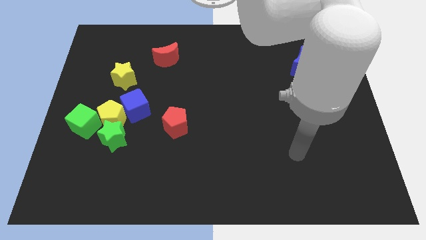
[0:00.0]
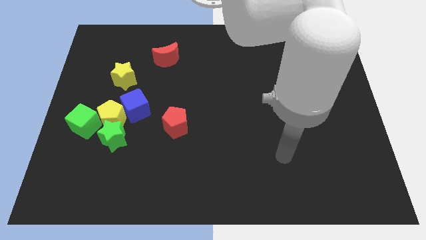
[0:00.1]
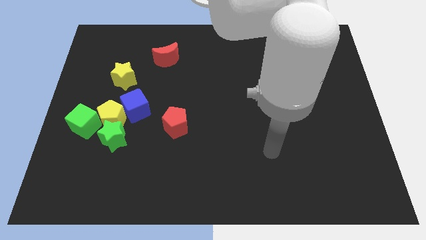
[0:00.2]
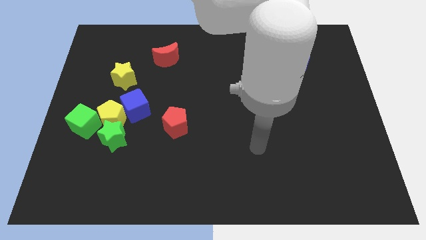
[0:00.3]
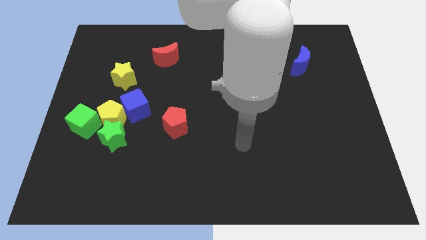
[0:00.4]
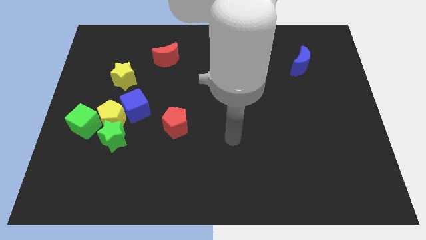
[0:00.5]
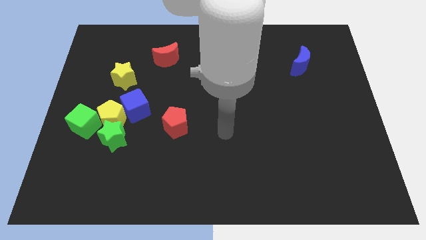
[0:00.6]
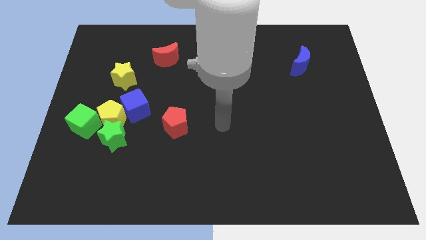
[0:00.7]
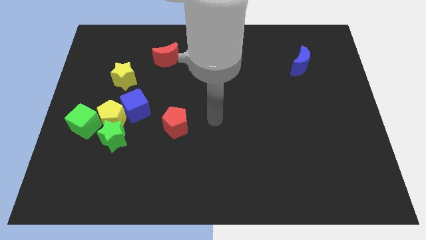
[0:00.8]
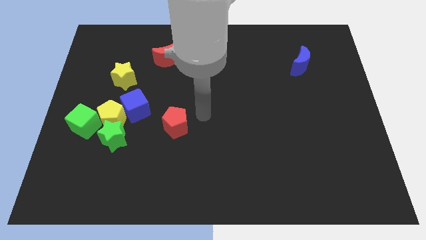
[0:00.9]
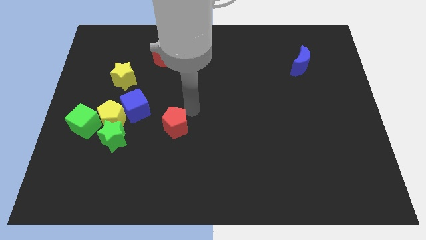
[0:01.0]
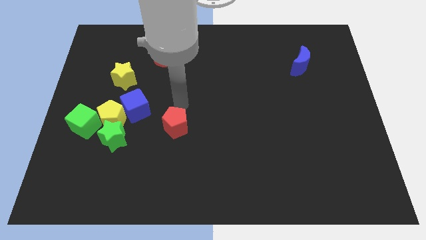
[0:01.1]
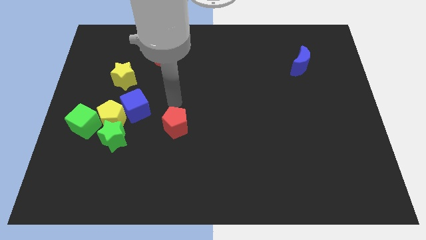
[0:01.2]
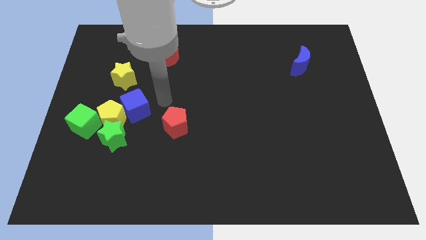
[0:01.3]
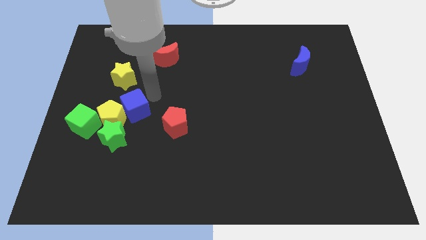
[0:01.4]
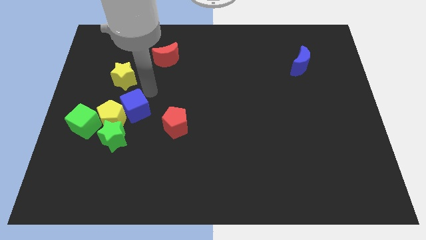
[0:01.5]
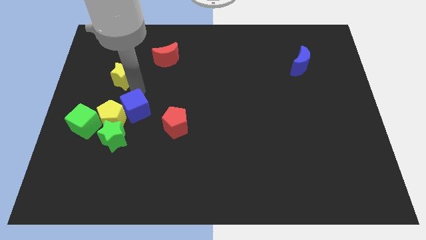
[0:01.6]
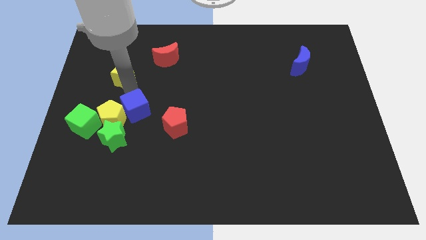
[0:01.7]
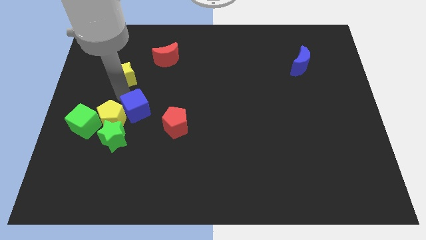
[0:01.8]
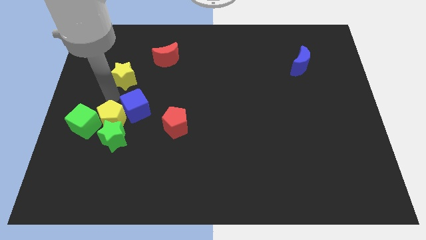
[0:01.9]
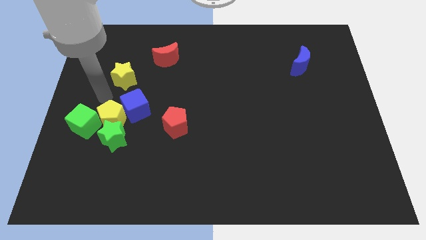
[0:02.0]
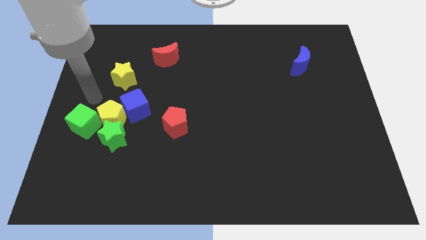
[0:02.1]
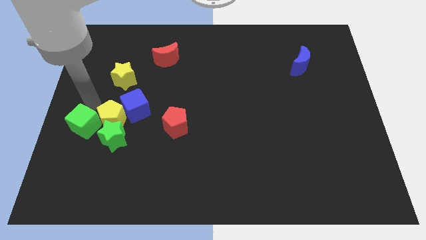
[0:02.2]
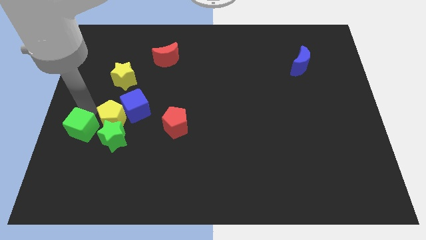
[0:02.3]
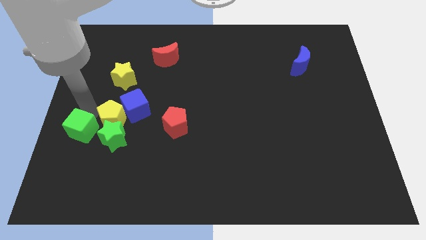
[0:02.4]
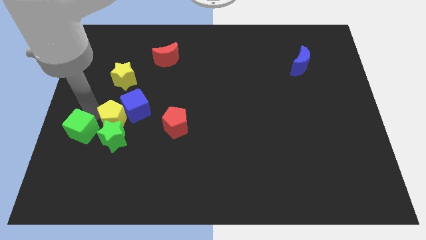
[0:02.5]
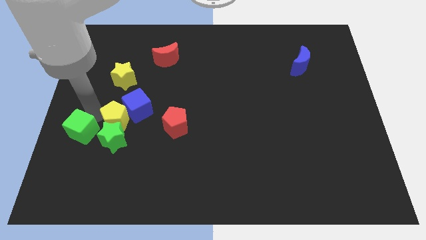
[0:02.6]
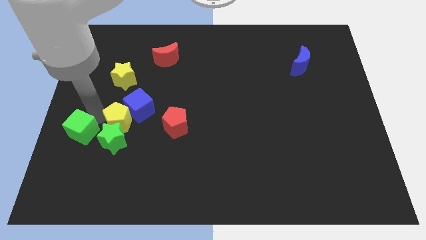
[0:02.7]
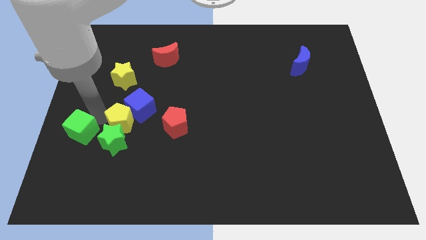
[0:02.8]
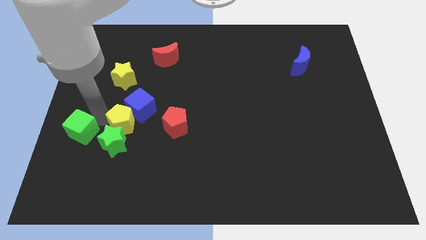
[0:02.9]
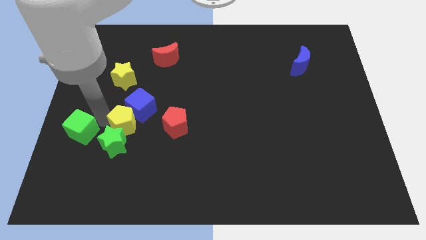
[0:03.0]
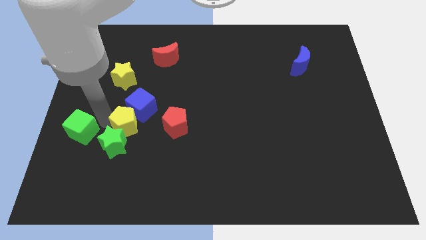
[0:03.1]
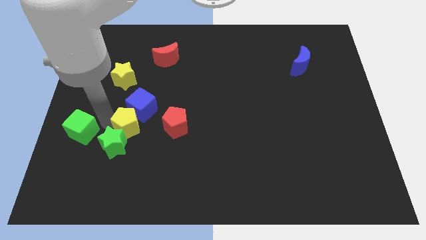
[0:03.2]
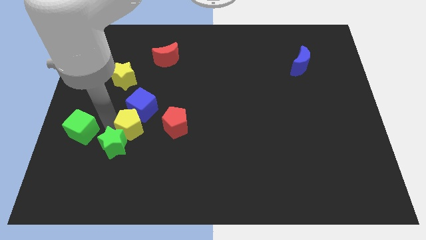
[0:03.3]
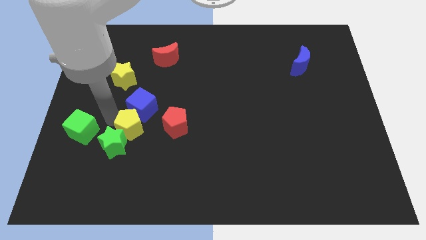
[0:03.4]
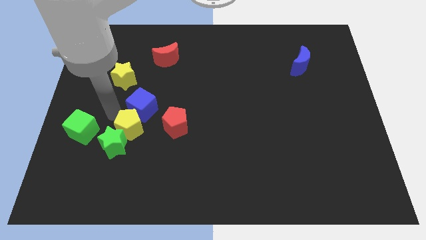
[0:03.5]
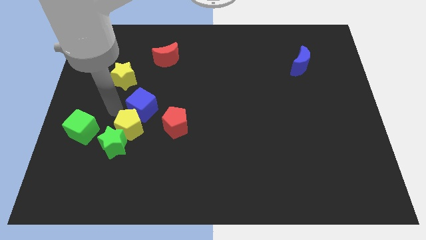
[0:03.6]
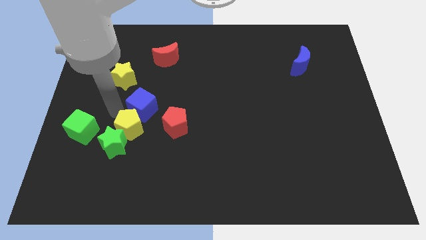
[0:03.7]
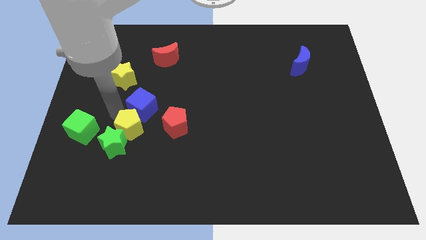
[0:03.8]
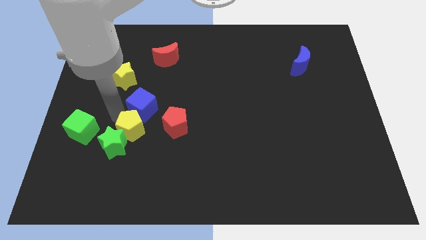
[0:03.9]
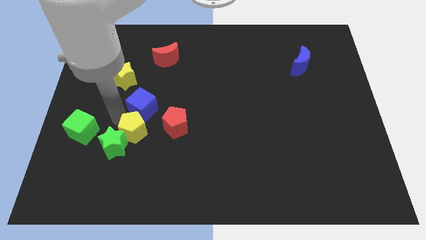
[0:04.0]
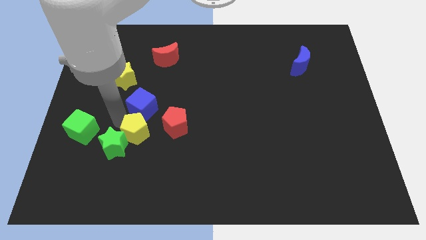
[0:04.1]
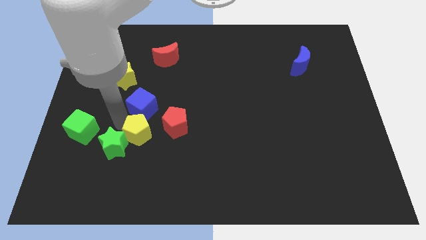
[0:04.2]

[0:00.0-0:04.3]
slightly slide the yellow pentagon down and to the right

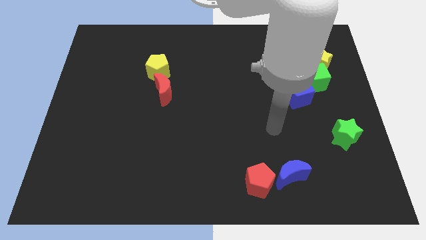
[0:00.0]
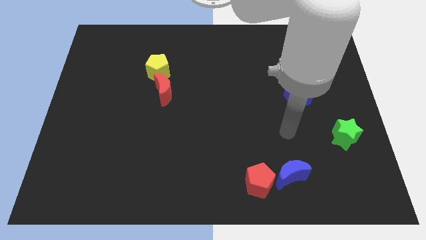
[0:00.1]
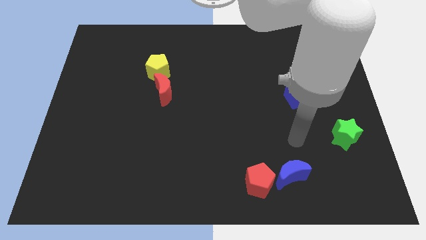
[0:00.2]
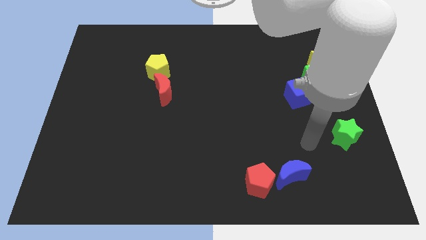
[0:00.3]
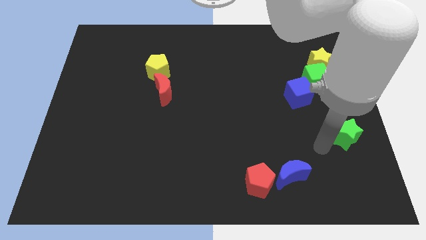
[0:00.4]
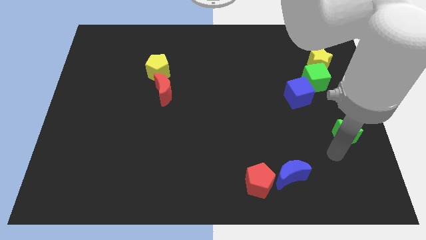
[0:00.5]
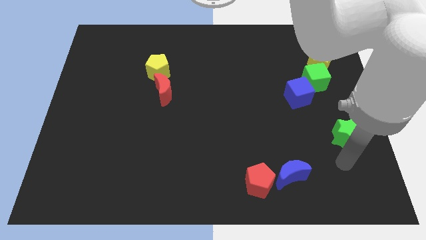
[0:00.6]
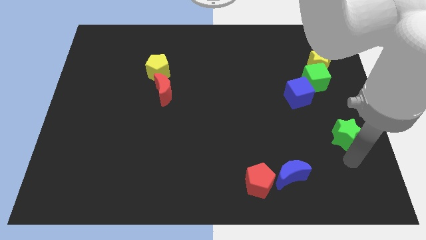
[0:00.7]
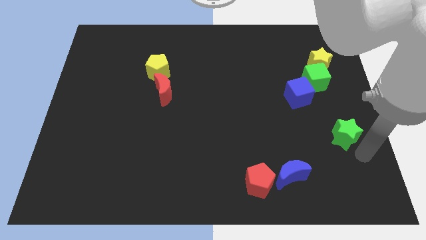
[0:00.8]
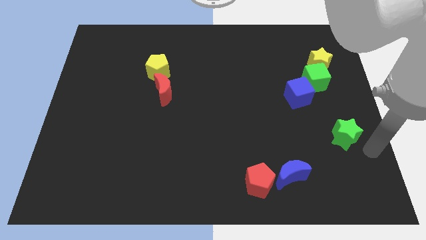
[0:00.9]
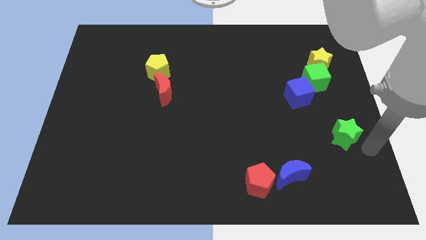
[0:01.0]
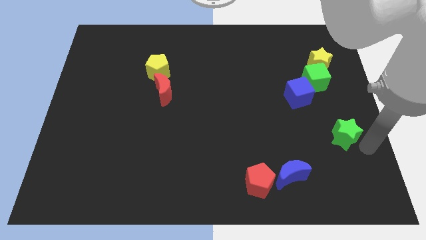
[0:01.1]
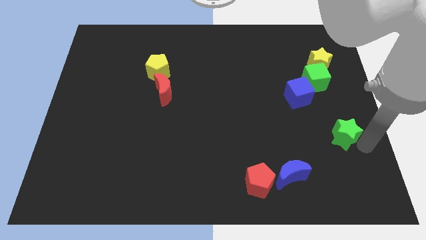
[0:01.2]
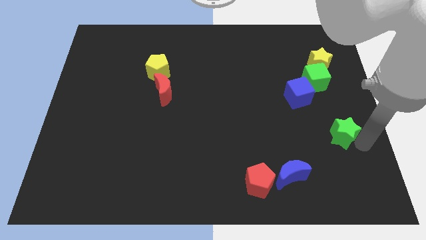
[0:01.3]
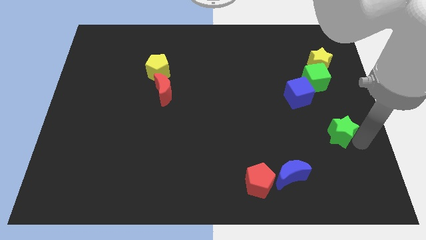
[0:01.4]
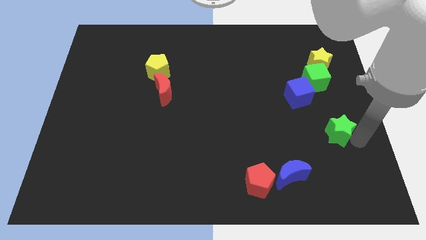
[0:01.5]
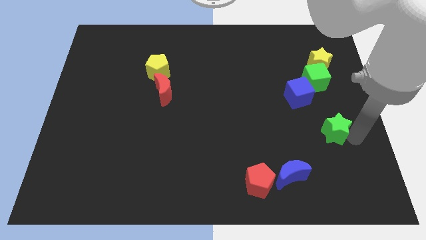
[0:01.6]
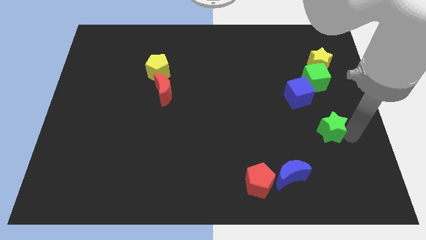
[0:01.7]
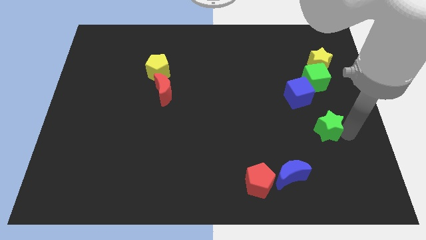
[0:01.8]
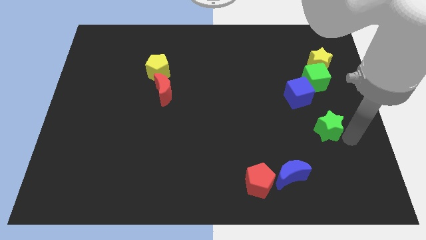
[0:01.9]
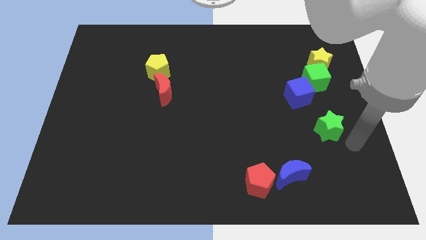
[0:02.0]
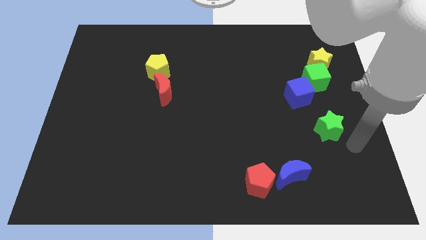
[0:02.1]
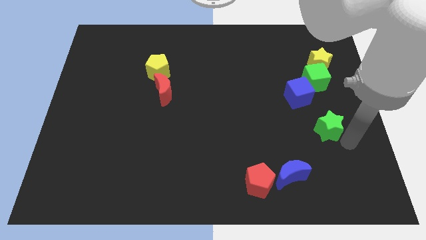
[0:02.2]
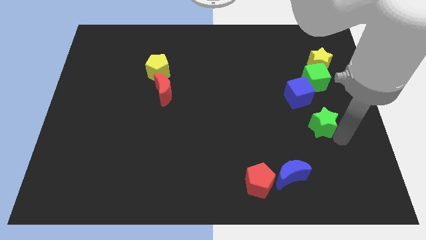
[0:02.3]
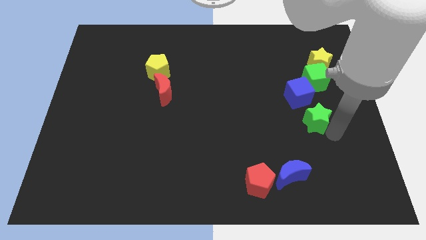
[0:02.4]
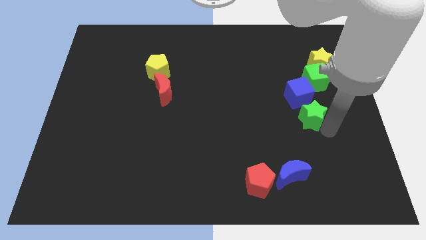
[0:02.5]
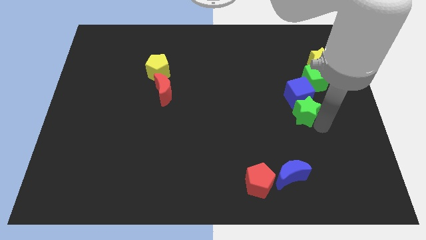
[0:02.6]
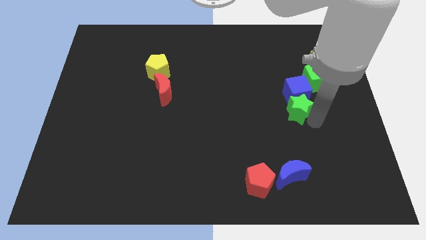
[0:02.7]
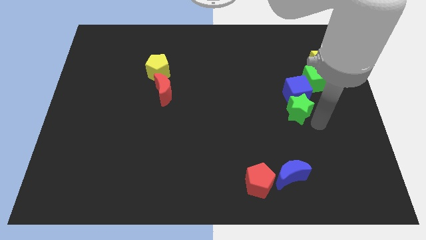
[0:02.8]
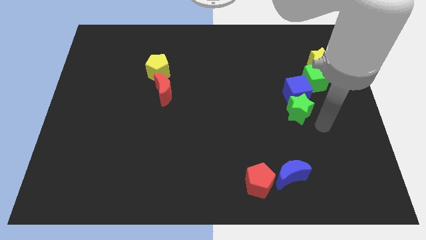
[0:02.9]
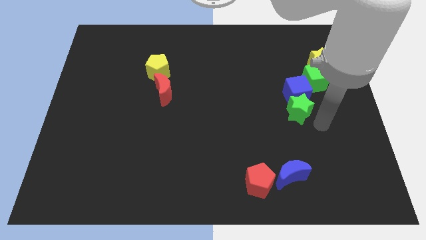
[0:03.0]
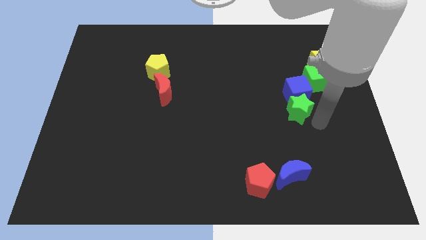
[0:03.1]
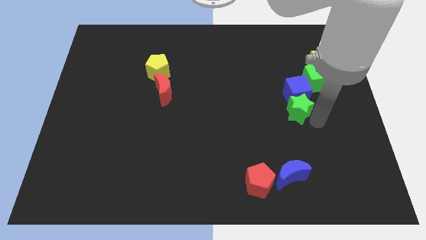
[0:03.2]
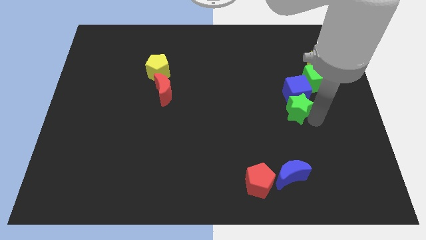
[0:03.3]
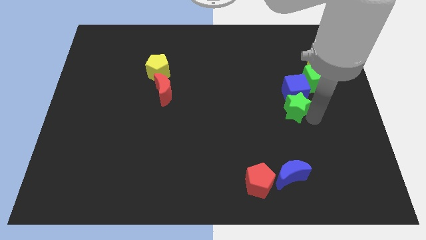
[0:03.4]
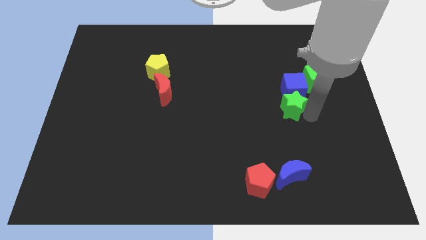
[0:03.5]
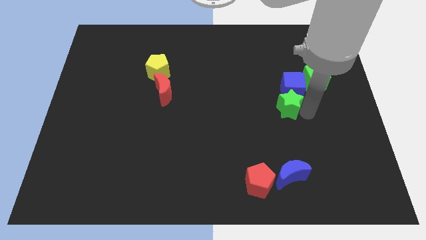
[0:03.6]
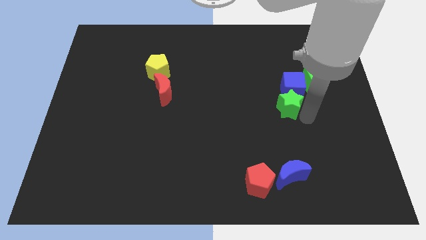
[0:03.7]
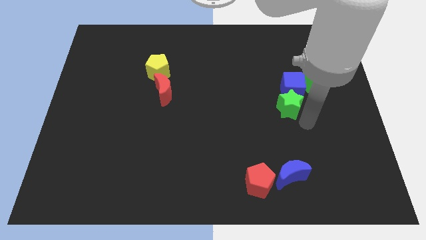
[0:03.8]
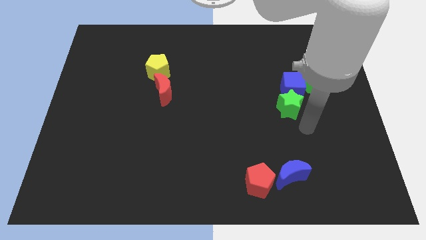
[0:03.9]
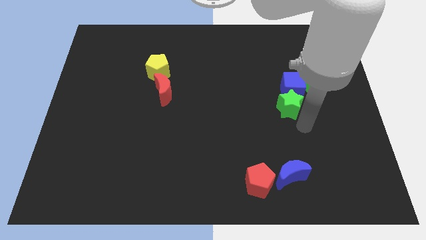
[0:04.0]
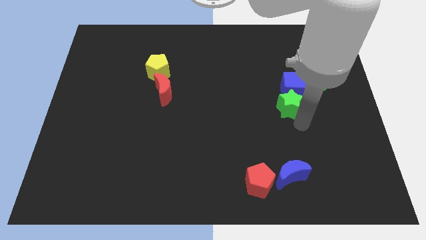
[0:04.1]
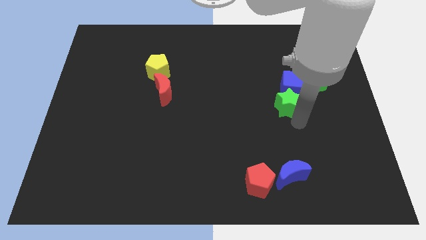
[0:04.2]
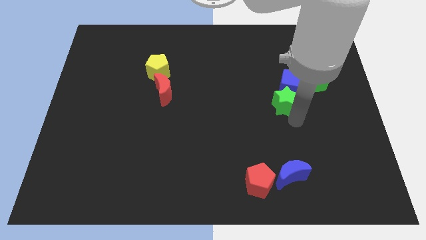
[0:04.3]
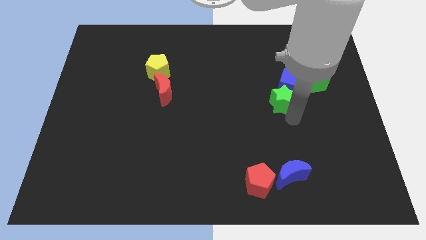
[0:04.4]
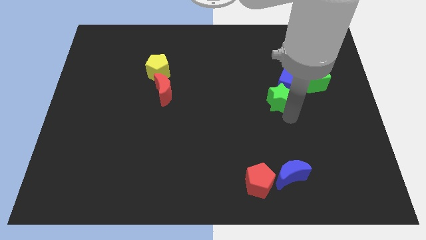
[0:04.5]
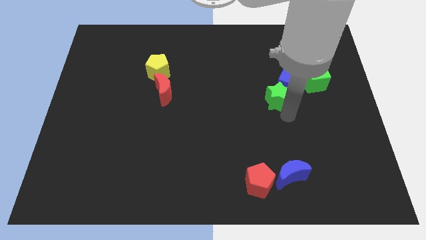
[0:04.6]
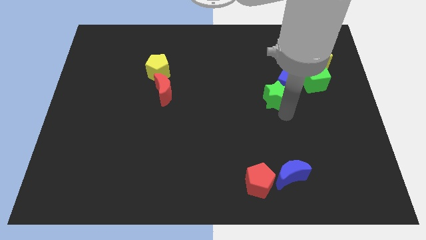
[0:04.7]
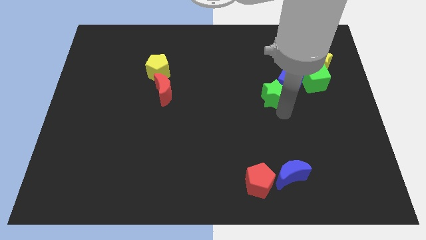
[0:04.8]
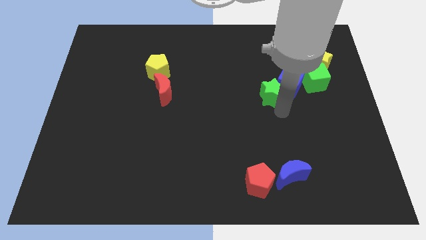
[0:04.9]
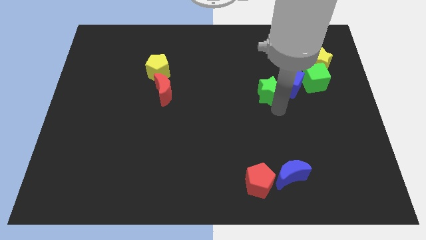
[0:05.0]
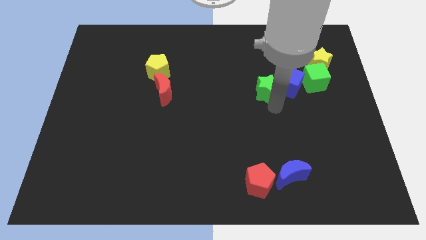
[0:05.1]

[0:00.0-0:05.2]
slide the green star upwards and left diagonally
